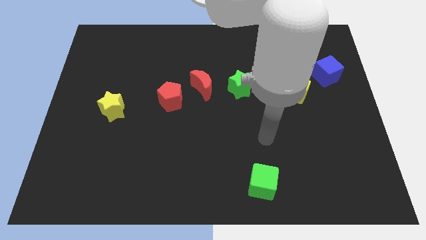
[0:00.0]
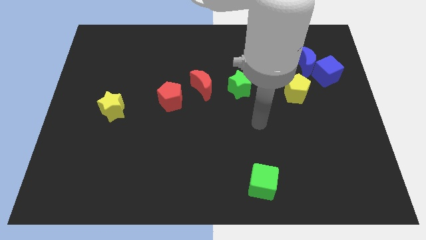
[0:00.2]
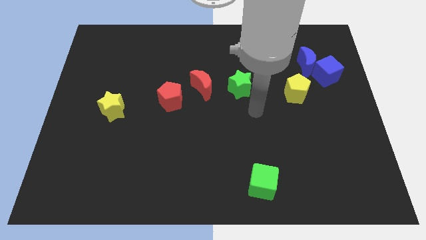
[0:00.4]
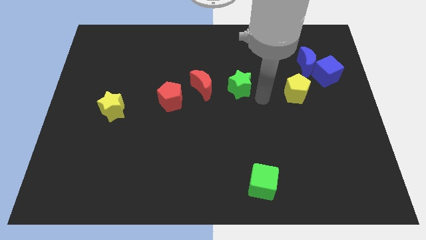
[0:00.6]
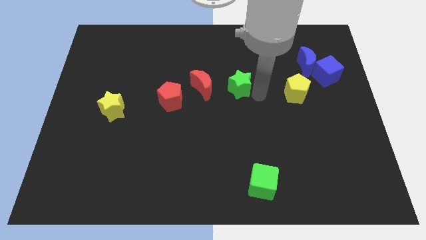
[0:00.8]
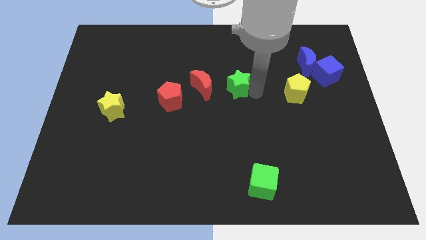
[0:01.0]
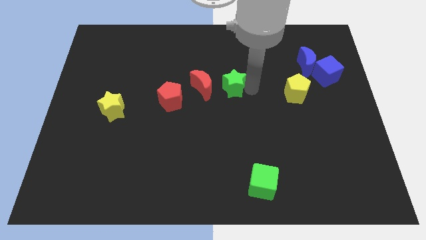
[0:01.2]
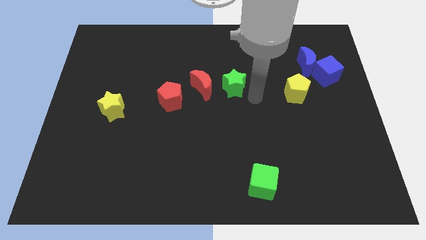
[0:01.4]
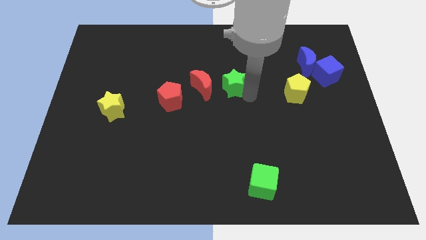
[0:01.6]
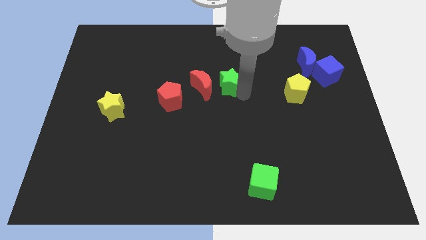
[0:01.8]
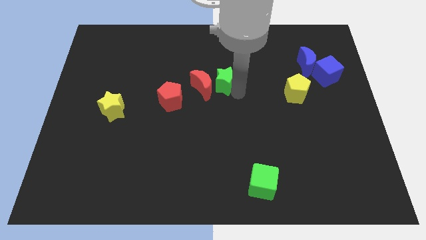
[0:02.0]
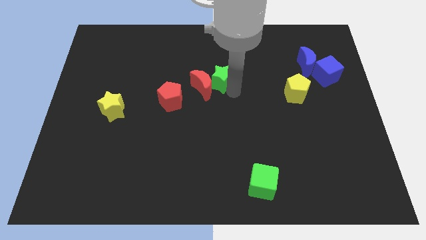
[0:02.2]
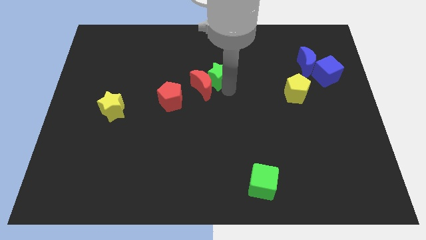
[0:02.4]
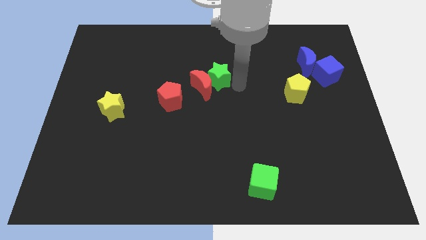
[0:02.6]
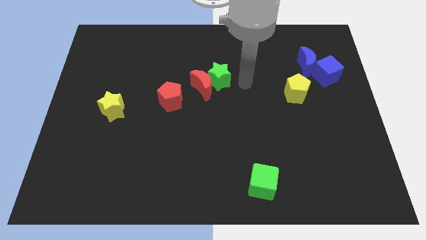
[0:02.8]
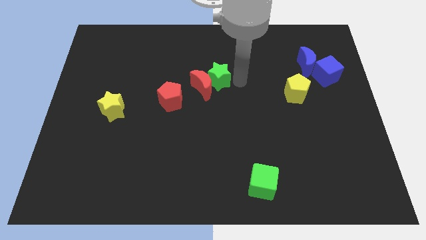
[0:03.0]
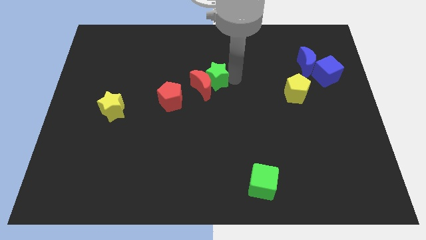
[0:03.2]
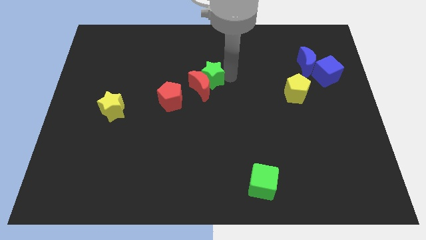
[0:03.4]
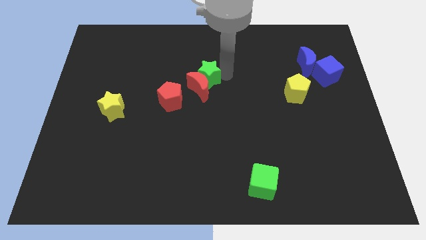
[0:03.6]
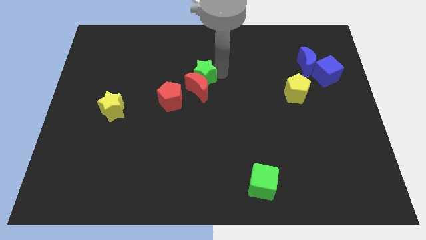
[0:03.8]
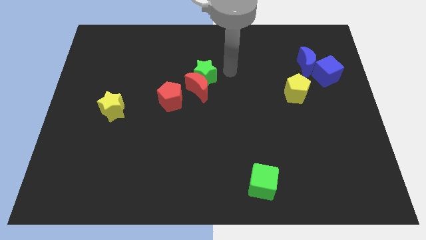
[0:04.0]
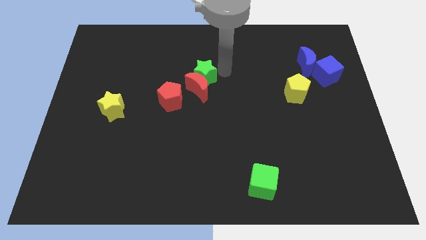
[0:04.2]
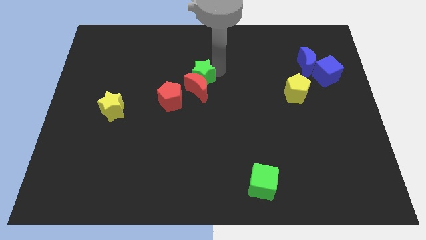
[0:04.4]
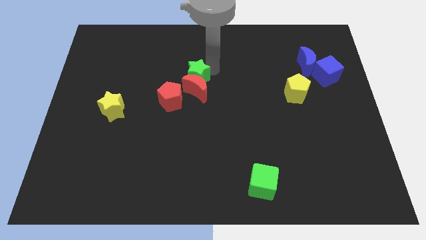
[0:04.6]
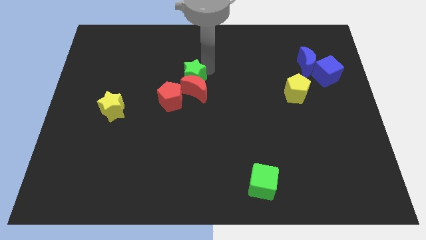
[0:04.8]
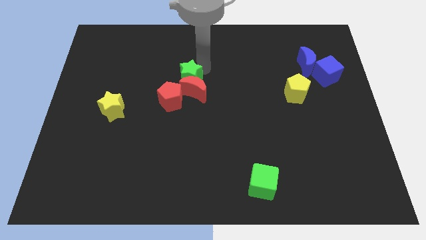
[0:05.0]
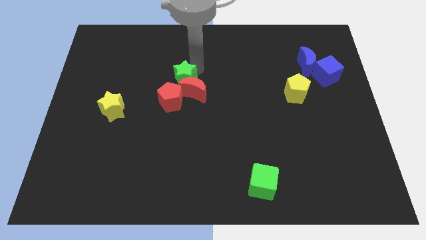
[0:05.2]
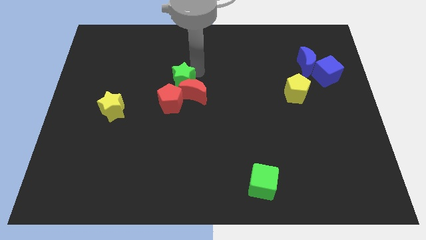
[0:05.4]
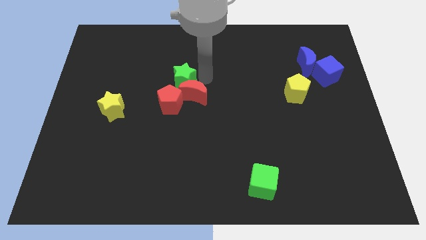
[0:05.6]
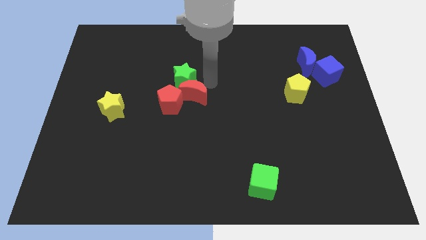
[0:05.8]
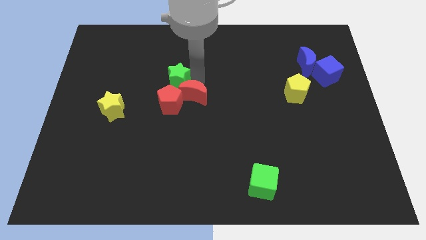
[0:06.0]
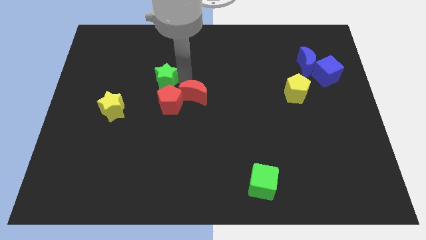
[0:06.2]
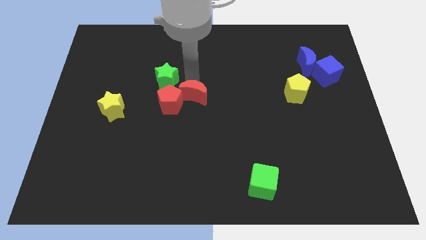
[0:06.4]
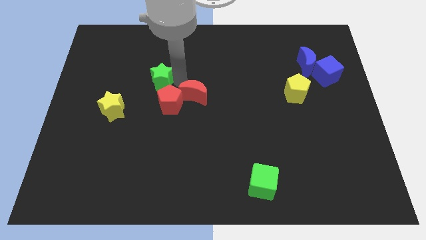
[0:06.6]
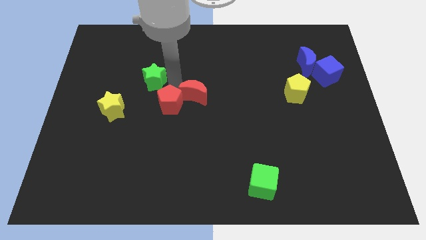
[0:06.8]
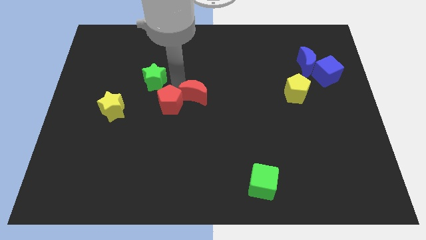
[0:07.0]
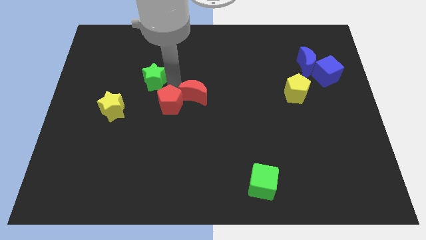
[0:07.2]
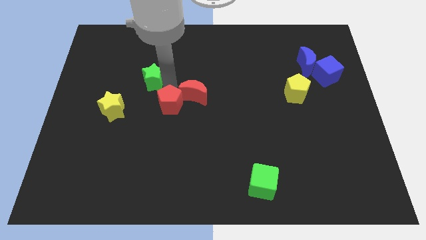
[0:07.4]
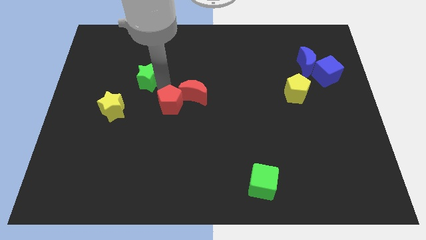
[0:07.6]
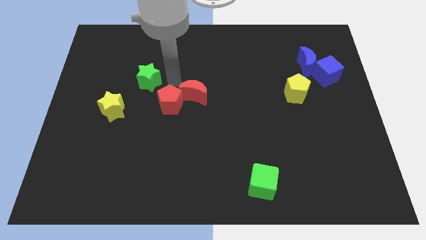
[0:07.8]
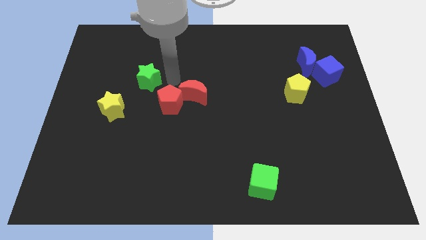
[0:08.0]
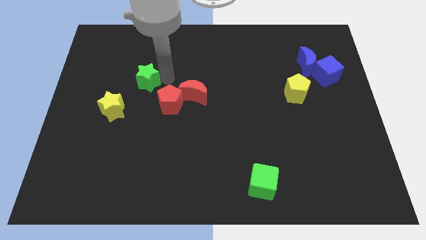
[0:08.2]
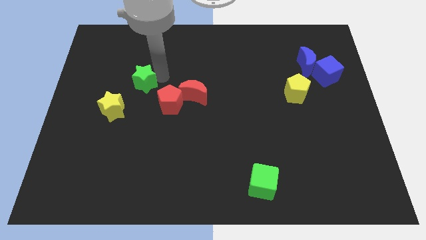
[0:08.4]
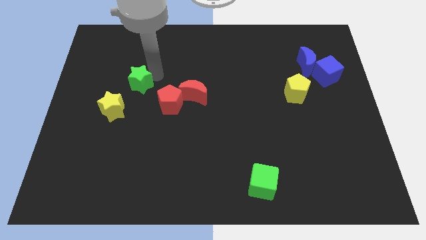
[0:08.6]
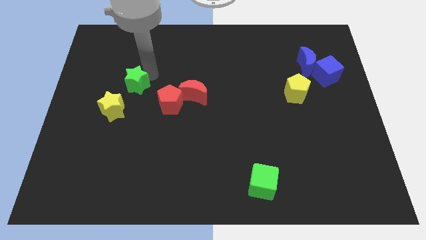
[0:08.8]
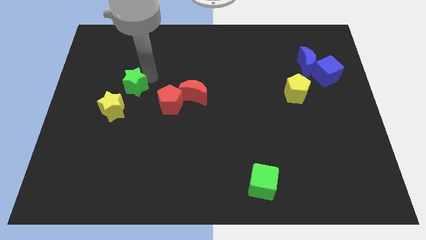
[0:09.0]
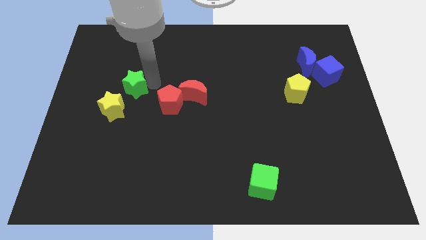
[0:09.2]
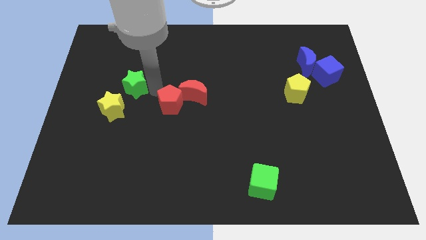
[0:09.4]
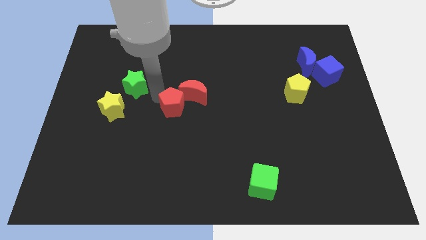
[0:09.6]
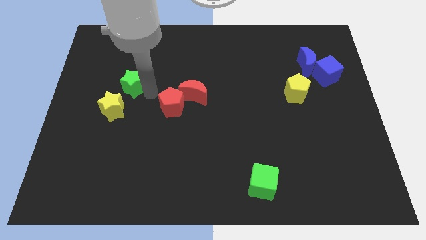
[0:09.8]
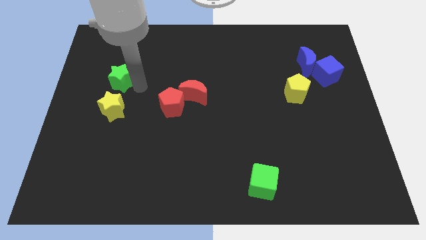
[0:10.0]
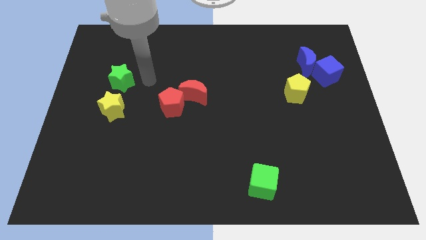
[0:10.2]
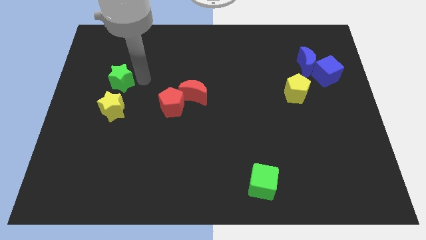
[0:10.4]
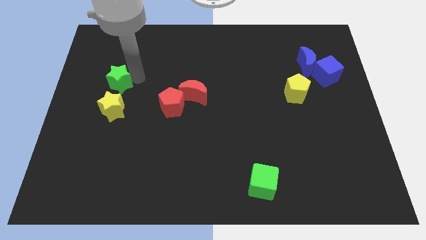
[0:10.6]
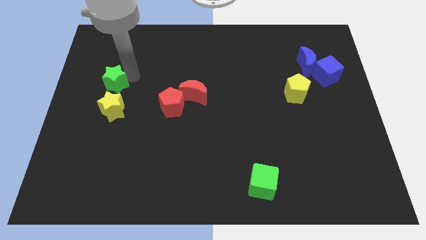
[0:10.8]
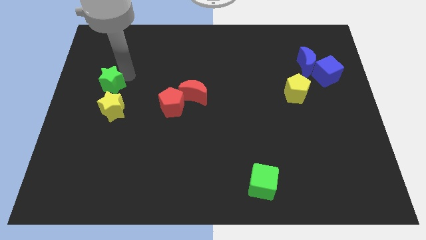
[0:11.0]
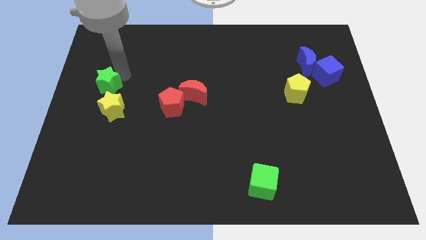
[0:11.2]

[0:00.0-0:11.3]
slide the green star to the left side
